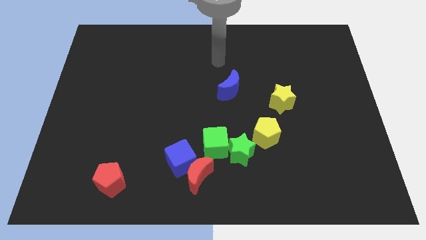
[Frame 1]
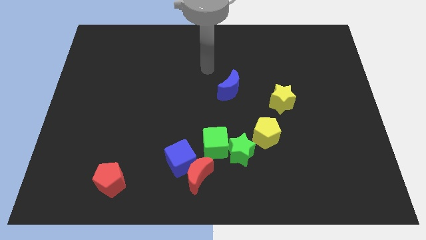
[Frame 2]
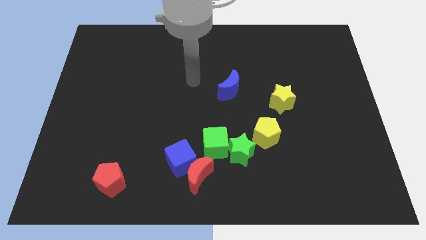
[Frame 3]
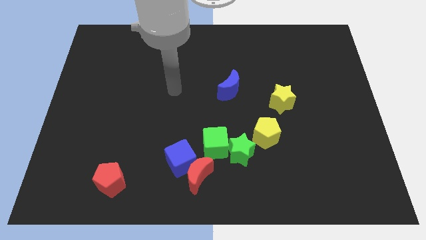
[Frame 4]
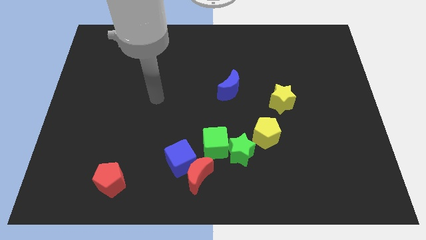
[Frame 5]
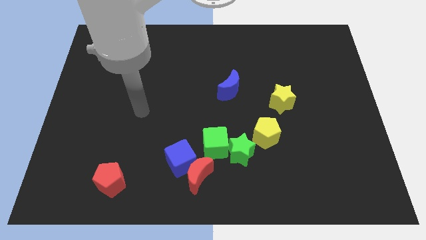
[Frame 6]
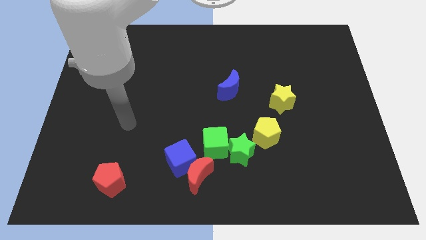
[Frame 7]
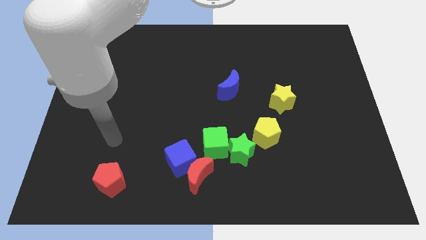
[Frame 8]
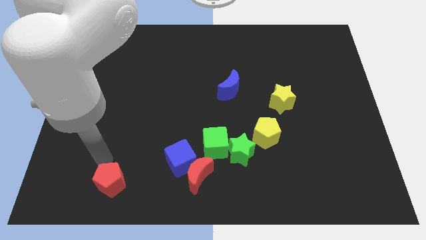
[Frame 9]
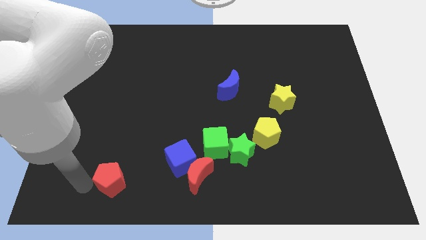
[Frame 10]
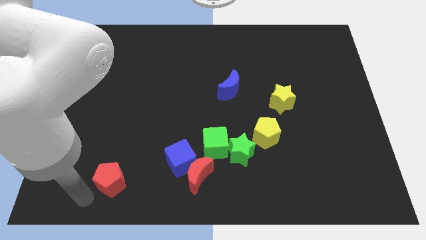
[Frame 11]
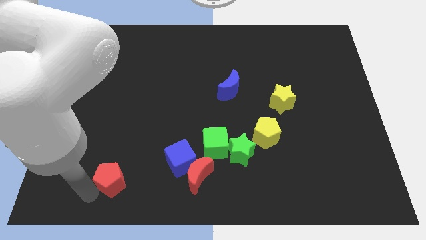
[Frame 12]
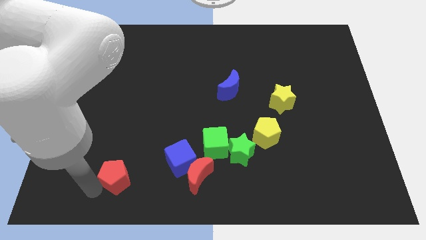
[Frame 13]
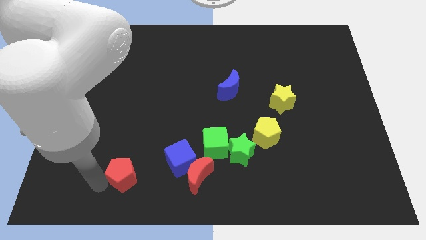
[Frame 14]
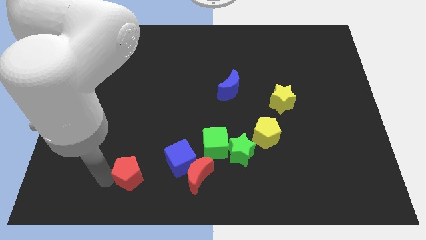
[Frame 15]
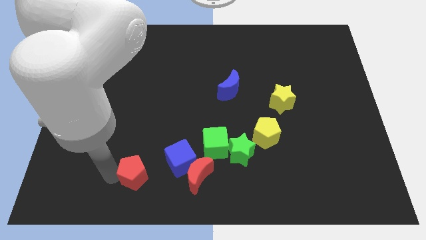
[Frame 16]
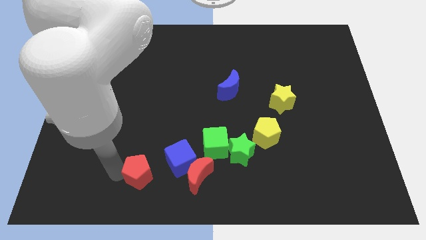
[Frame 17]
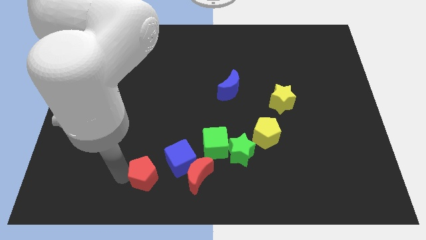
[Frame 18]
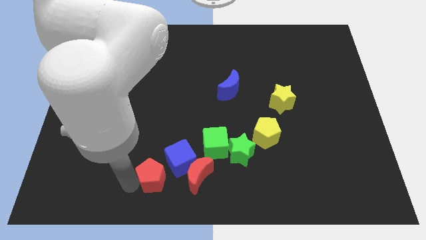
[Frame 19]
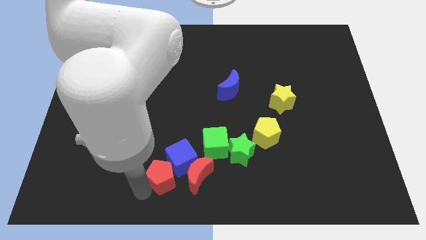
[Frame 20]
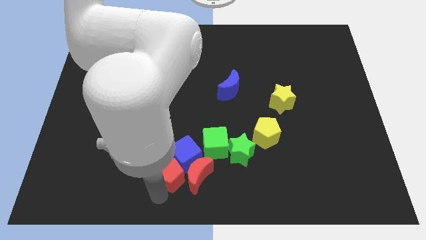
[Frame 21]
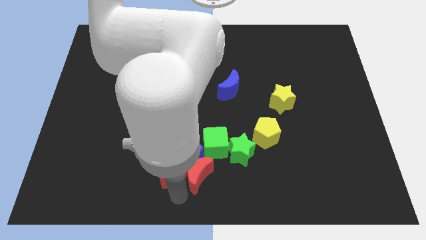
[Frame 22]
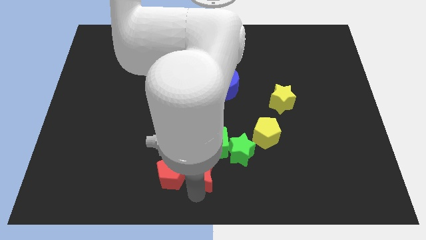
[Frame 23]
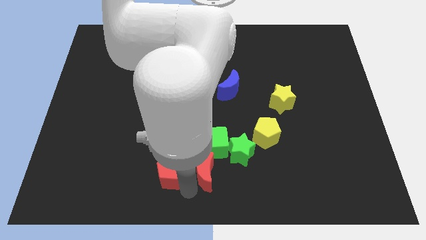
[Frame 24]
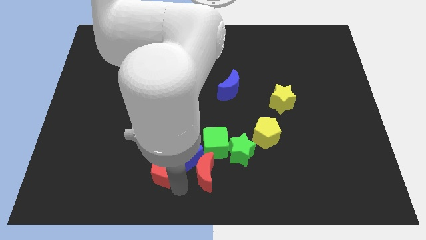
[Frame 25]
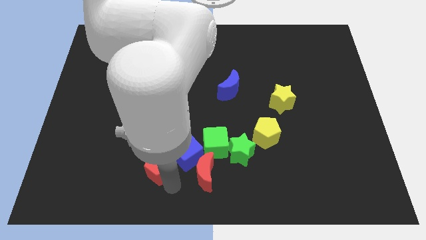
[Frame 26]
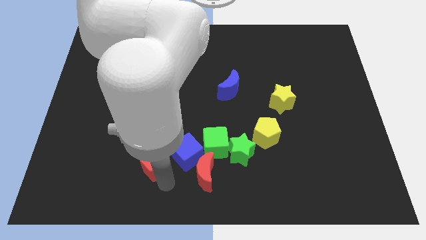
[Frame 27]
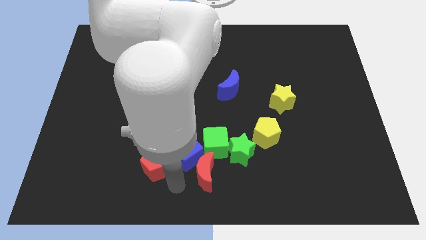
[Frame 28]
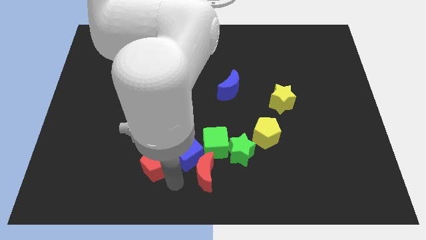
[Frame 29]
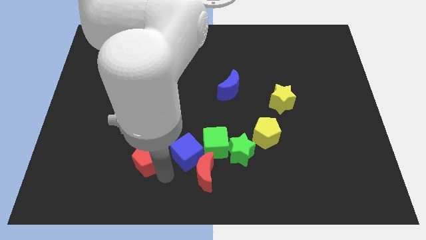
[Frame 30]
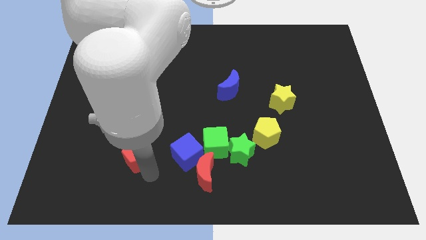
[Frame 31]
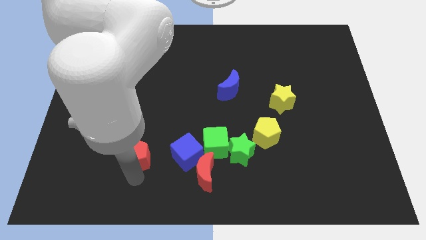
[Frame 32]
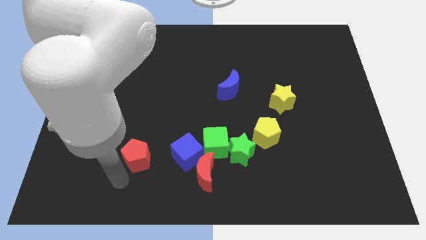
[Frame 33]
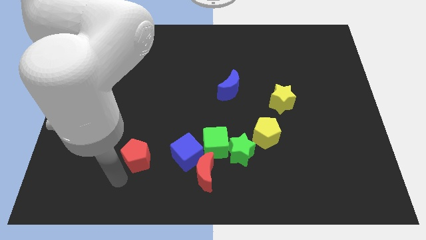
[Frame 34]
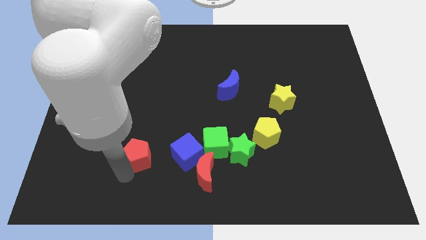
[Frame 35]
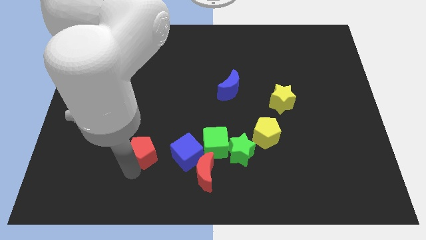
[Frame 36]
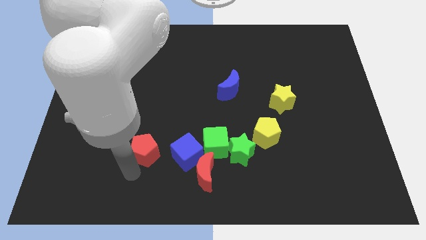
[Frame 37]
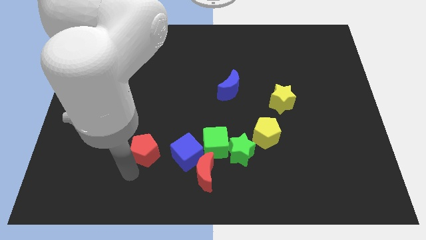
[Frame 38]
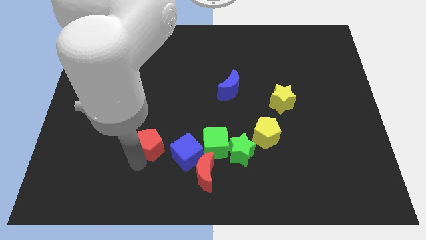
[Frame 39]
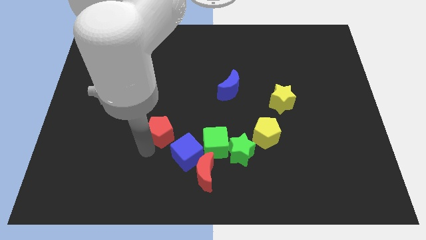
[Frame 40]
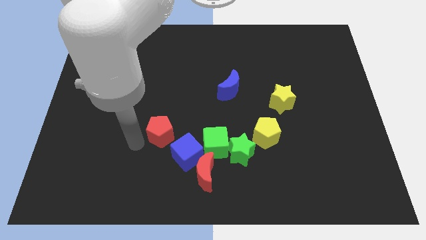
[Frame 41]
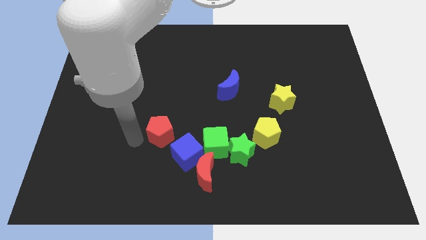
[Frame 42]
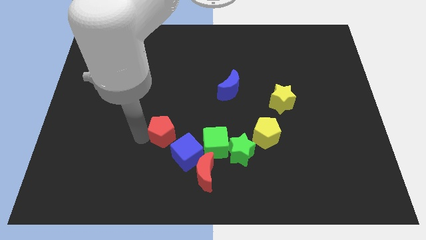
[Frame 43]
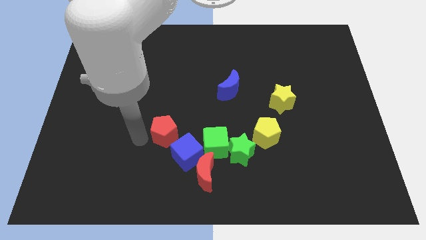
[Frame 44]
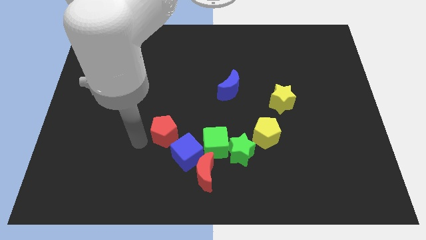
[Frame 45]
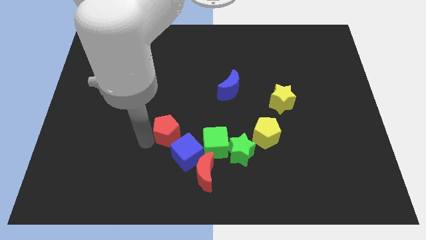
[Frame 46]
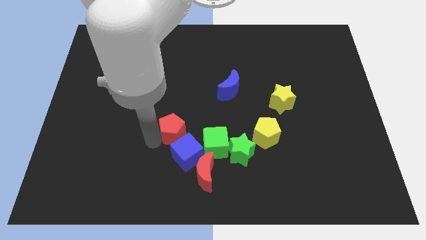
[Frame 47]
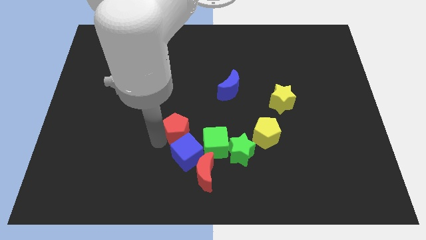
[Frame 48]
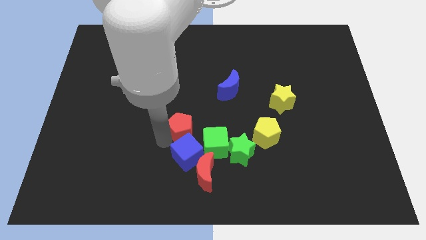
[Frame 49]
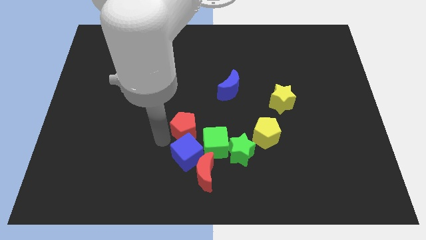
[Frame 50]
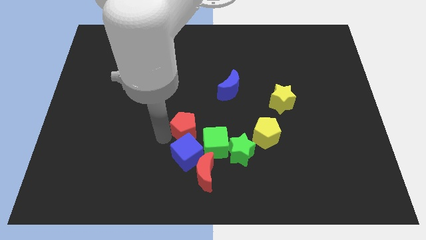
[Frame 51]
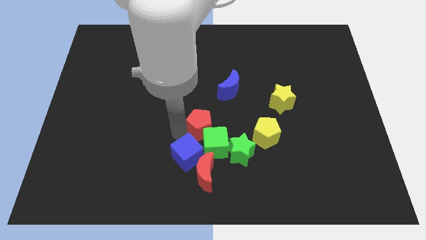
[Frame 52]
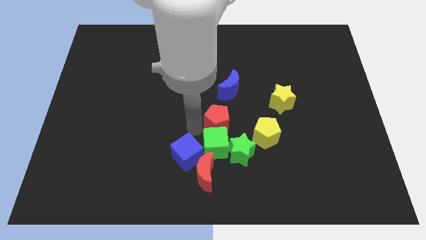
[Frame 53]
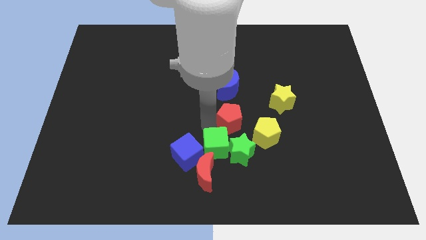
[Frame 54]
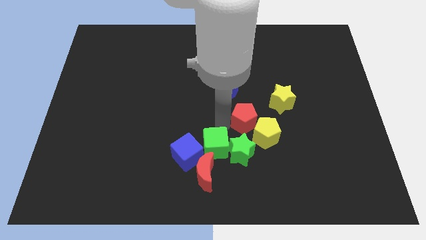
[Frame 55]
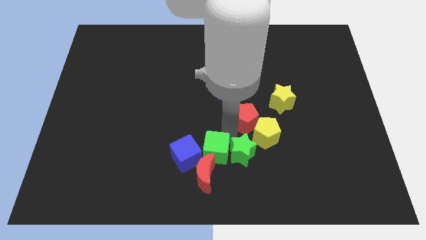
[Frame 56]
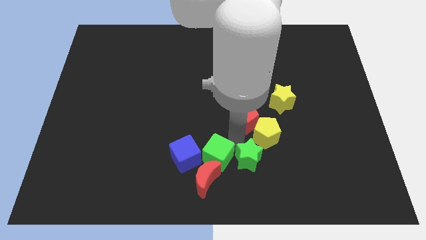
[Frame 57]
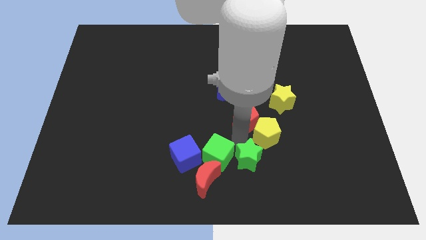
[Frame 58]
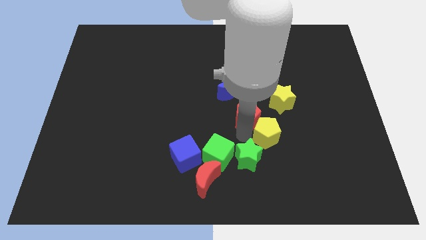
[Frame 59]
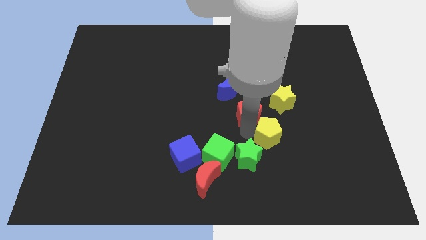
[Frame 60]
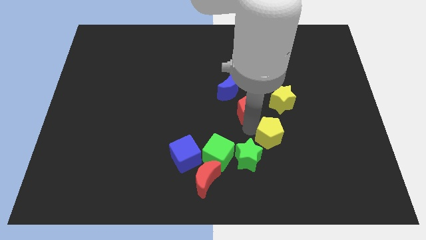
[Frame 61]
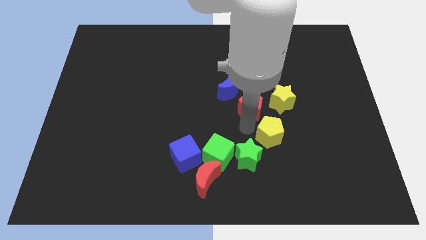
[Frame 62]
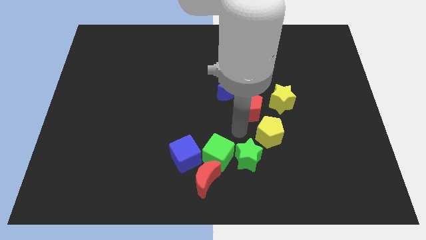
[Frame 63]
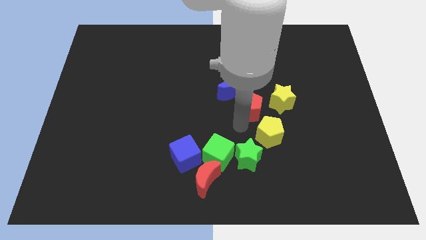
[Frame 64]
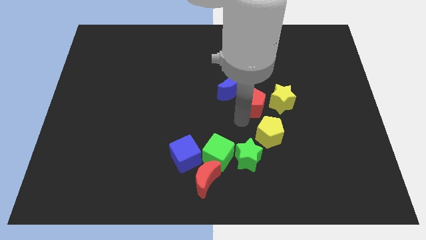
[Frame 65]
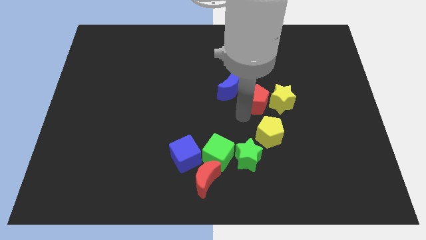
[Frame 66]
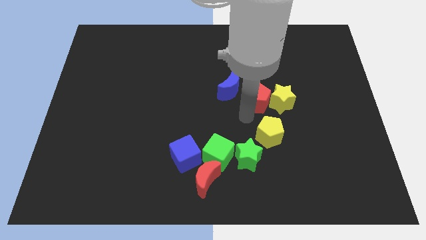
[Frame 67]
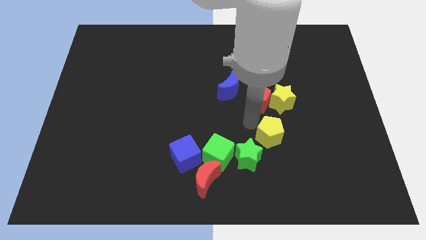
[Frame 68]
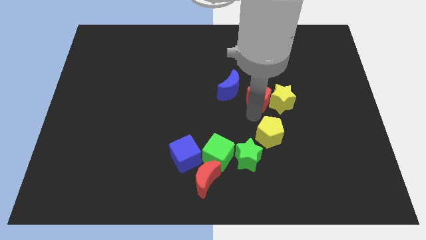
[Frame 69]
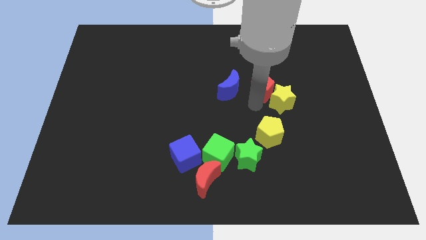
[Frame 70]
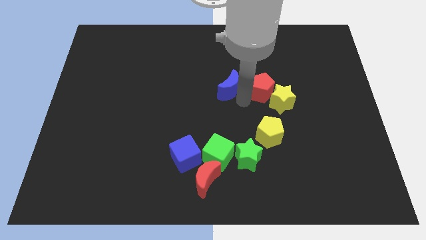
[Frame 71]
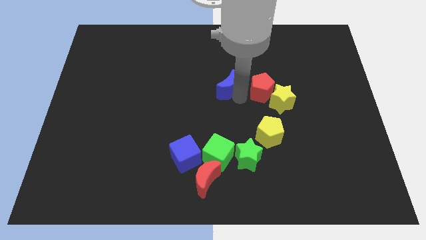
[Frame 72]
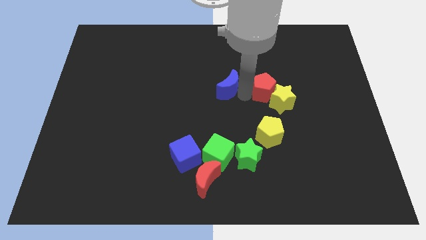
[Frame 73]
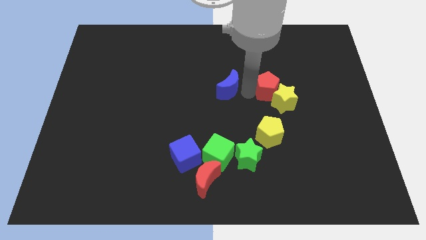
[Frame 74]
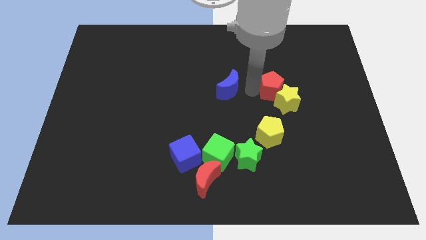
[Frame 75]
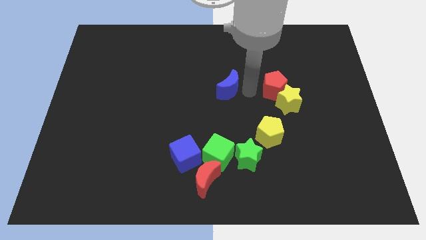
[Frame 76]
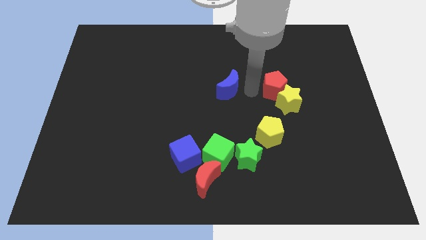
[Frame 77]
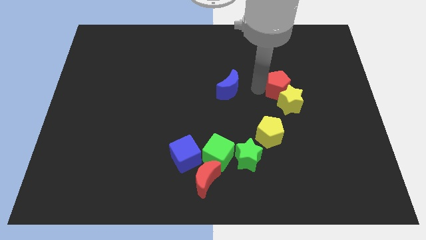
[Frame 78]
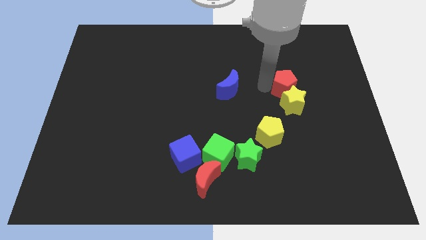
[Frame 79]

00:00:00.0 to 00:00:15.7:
slide the red pentagon diagonally up and to the right of the yellow star
